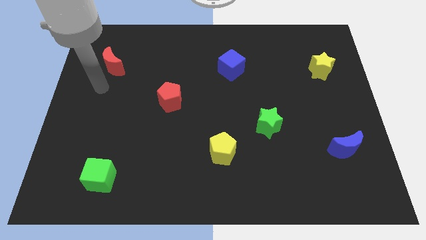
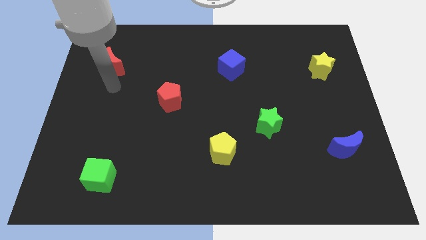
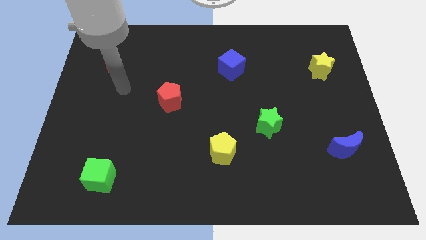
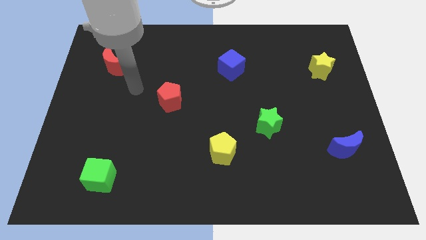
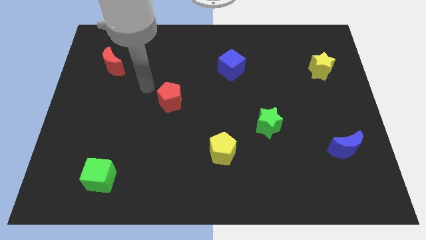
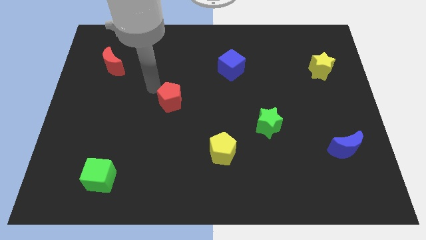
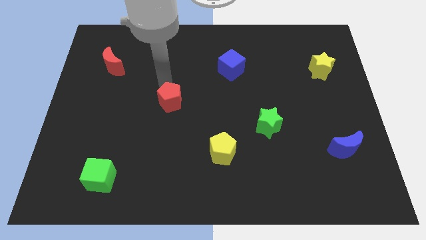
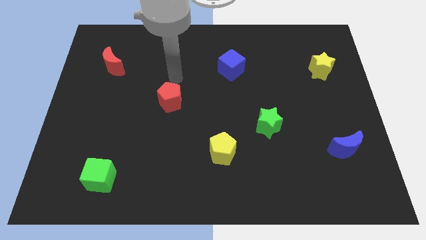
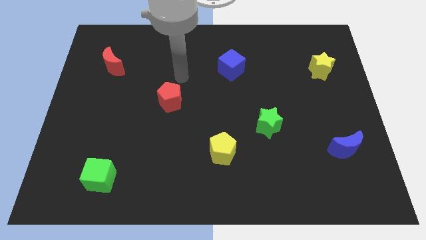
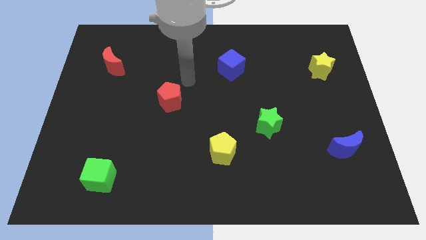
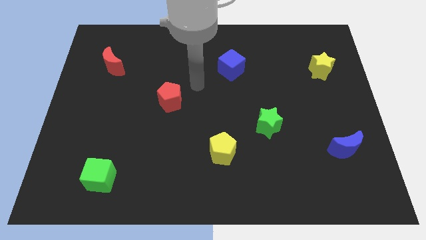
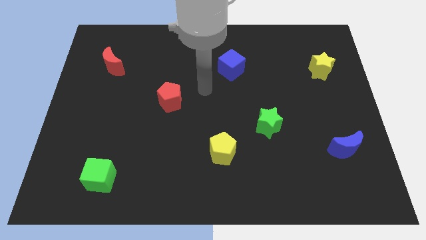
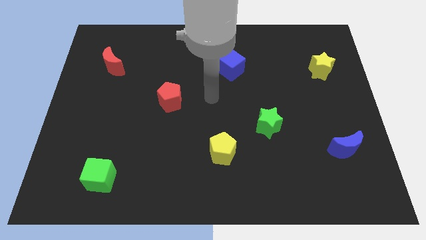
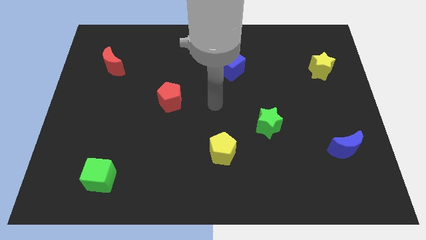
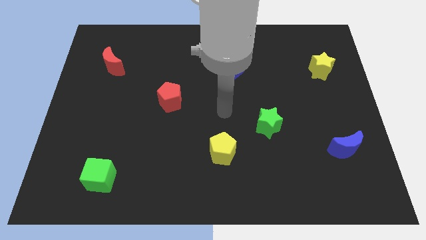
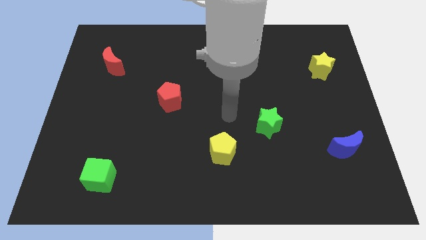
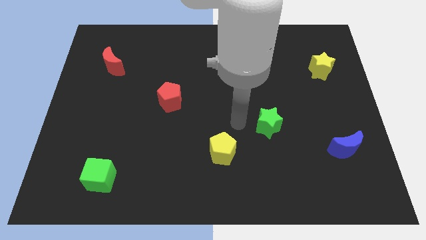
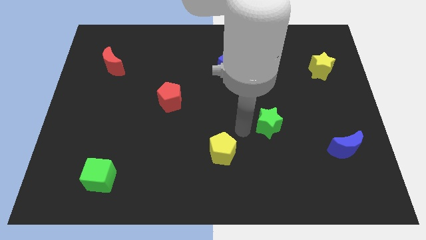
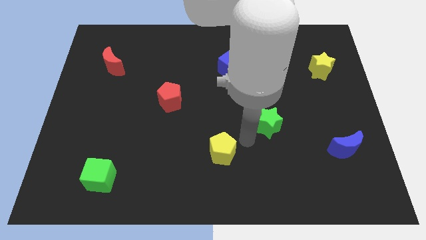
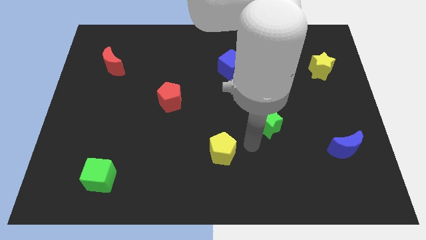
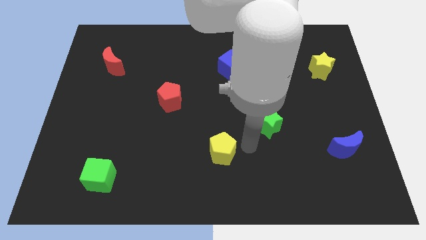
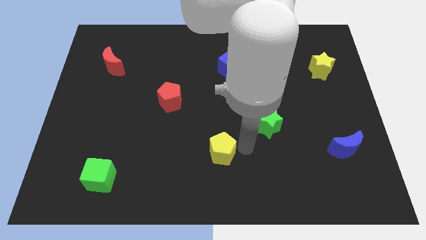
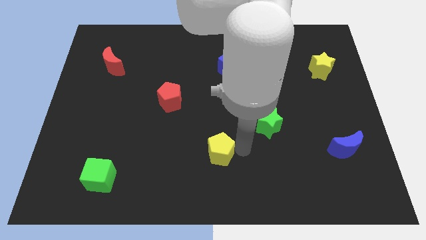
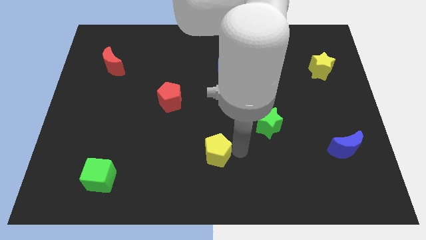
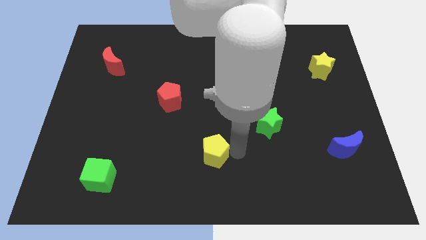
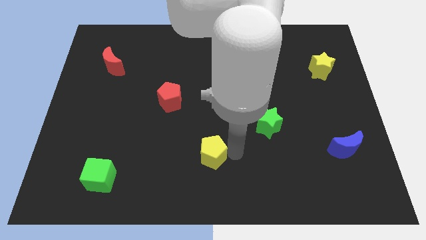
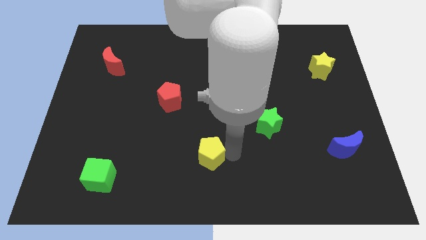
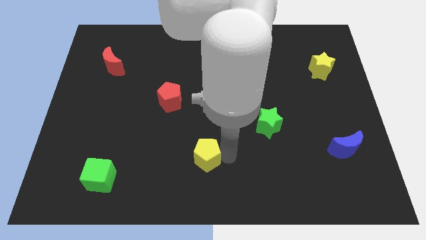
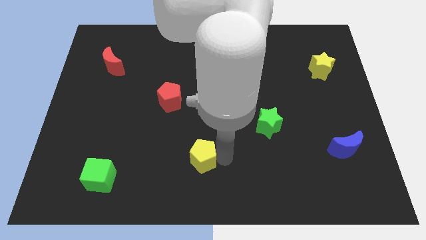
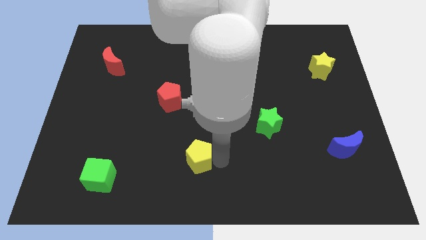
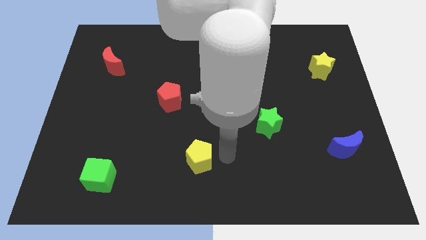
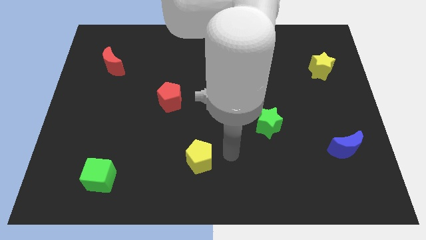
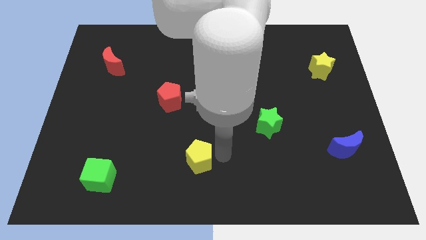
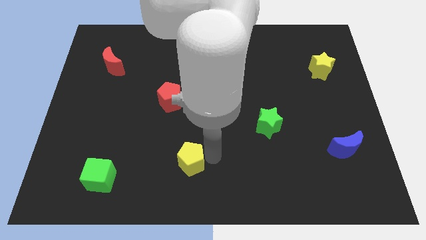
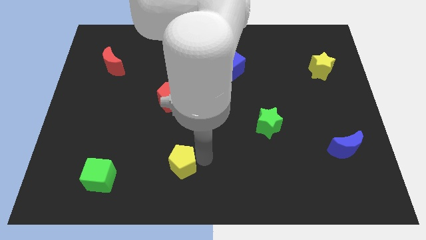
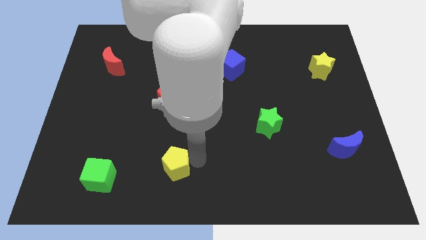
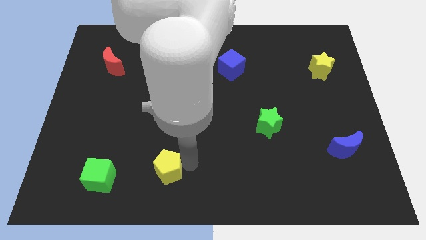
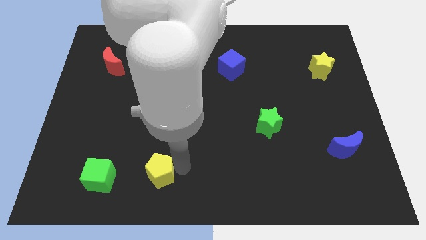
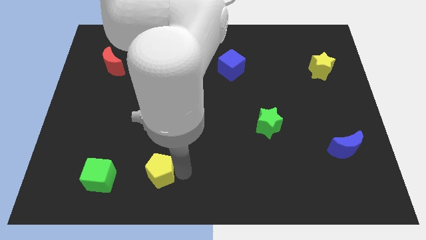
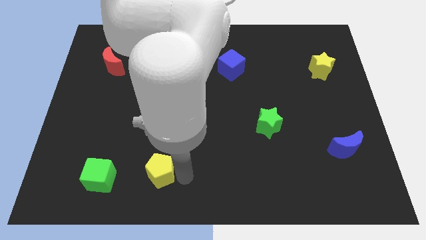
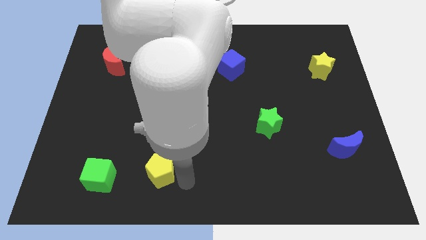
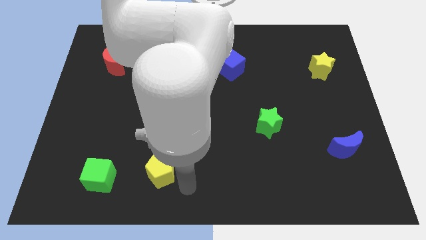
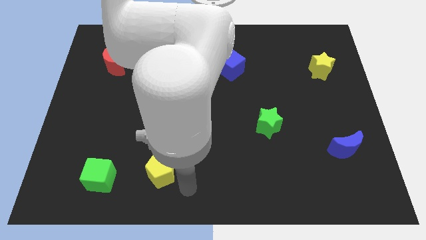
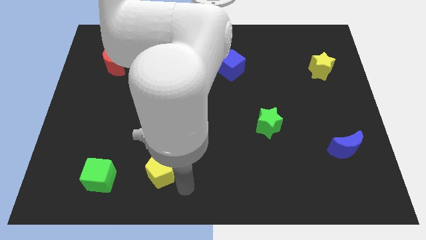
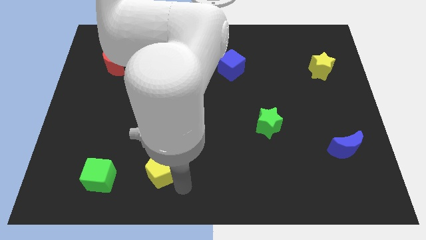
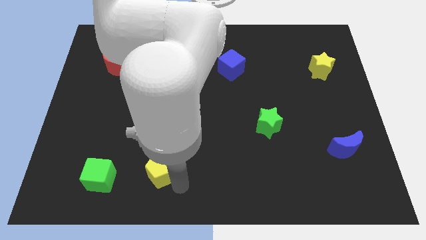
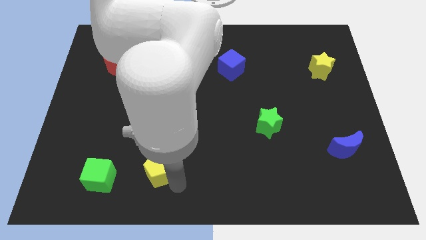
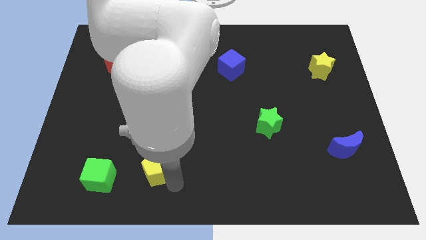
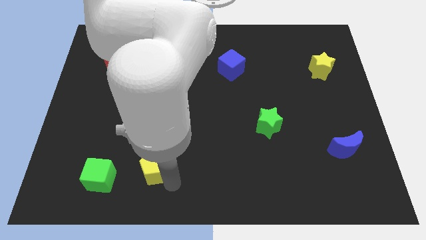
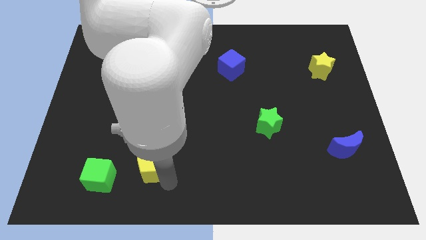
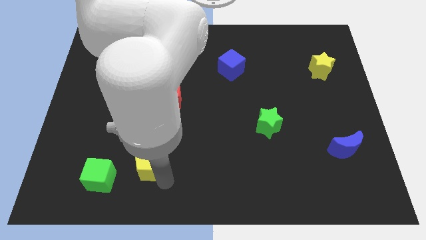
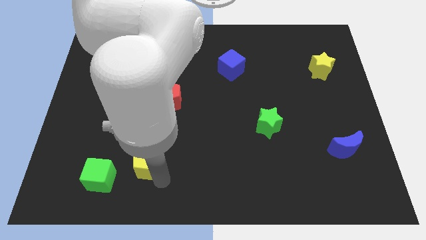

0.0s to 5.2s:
move the yellow pentagon diagonally up and to the right of the green cube

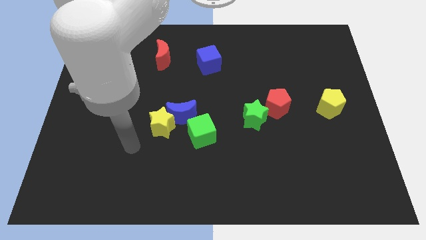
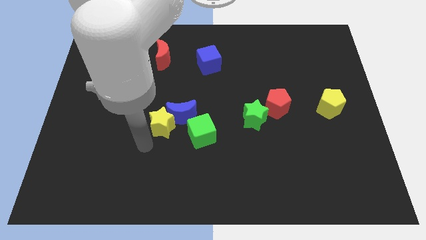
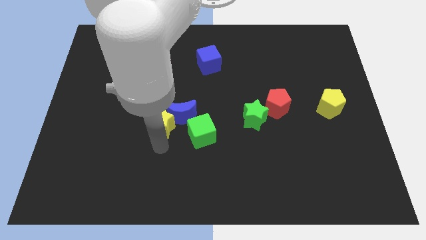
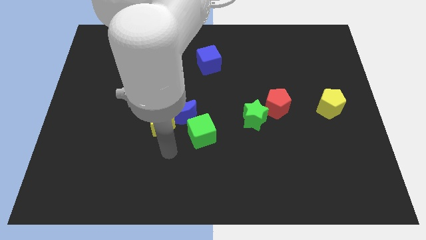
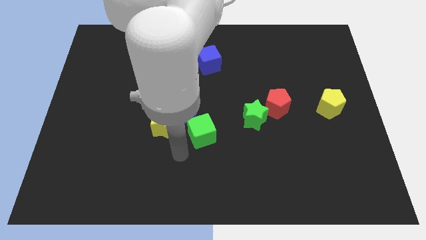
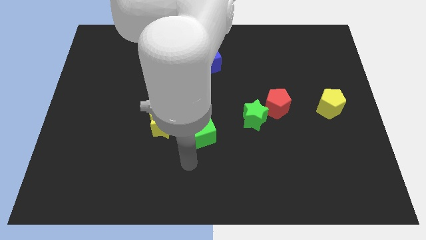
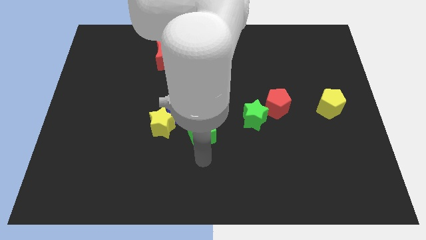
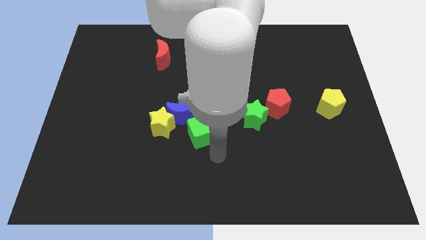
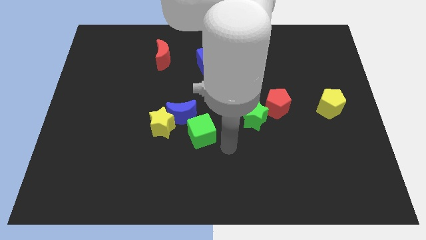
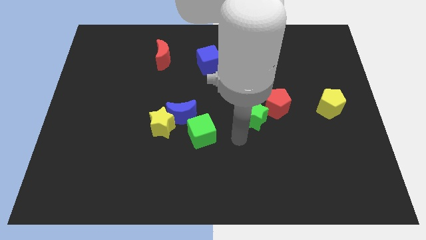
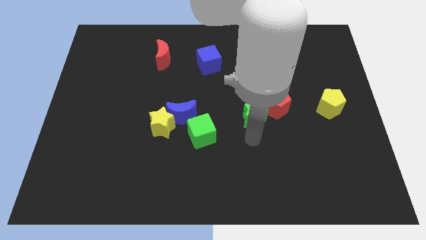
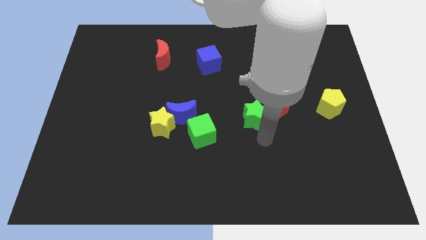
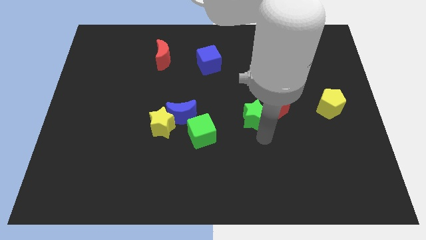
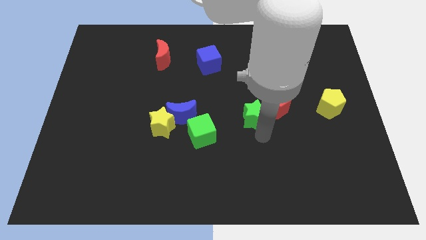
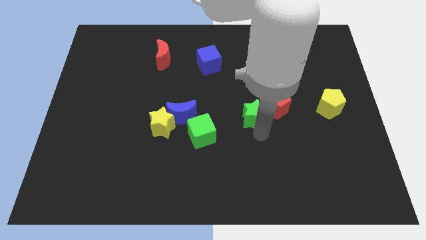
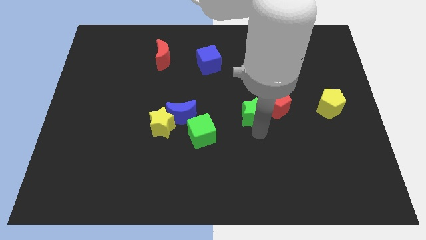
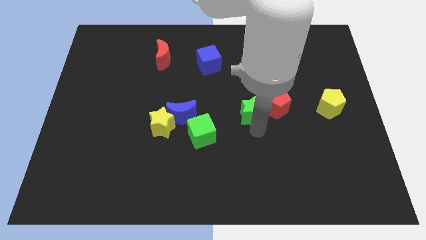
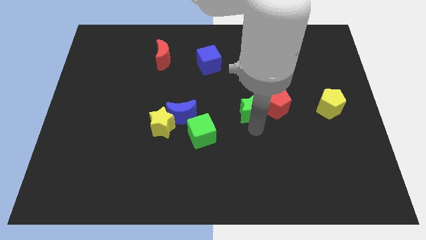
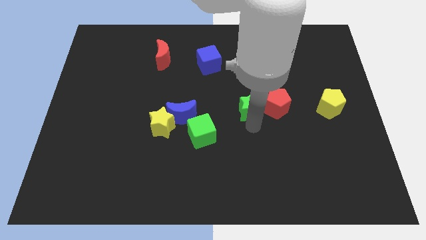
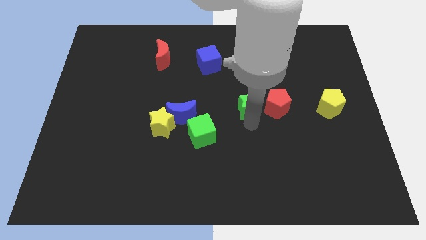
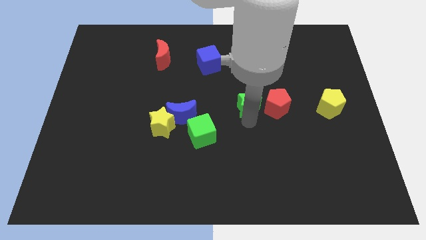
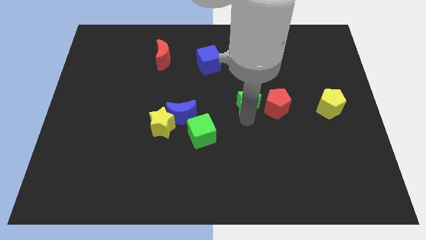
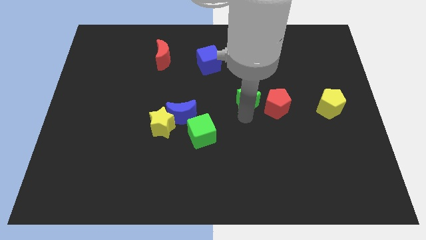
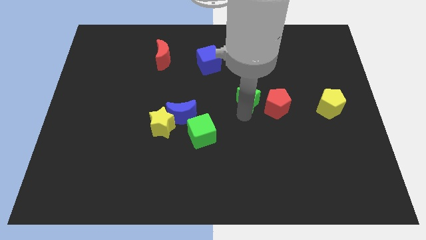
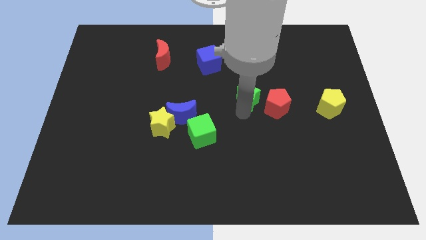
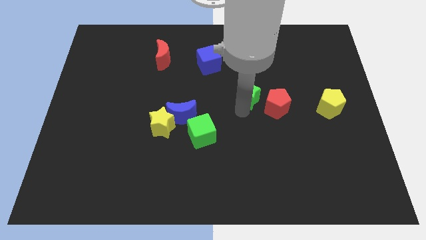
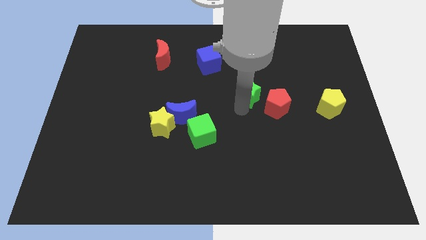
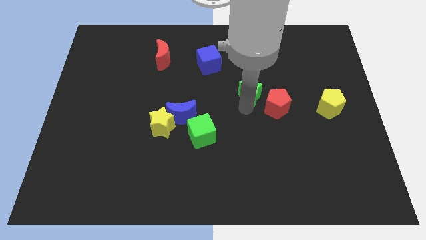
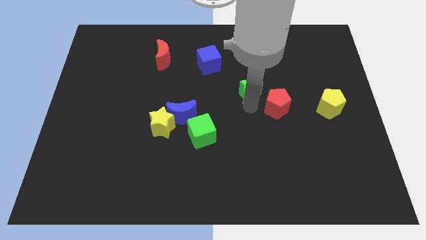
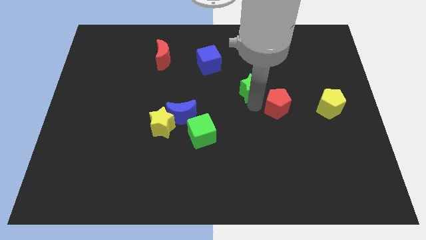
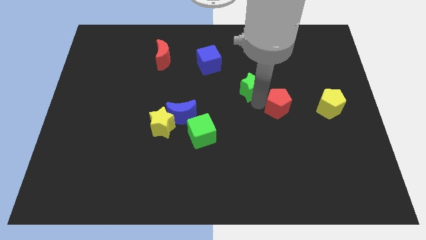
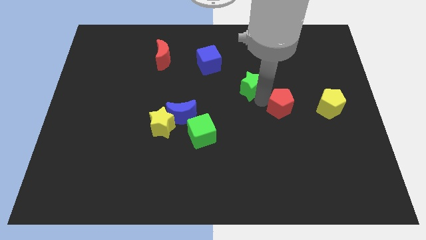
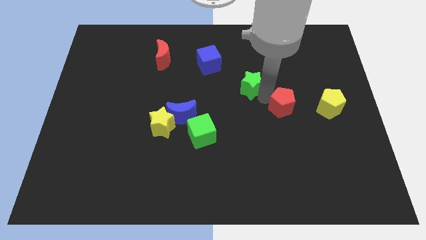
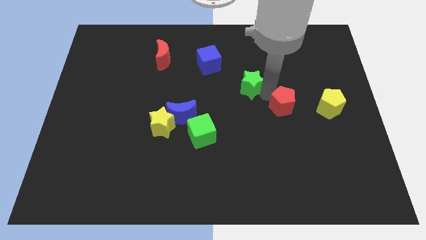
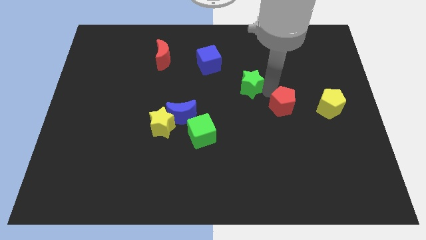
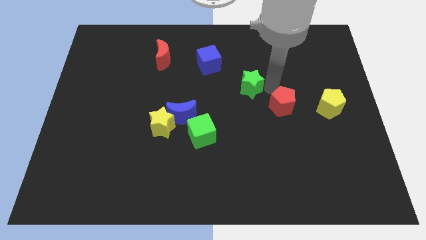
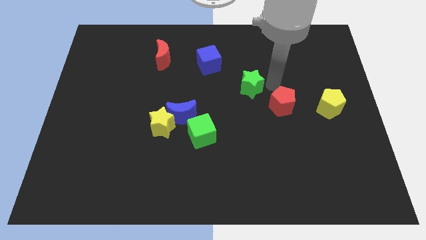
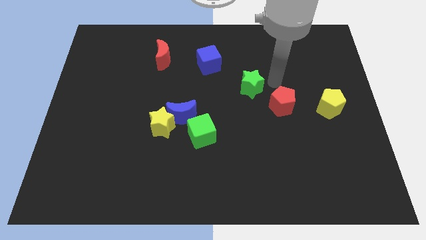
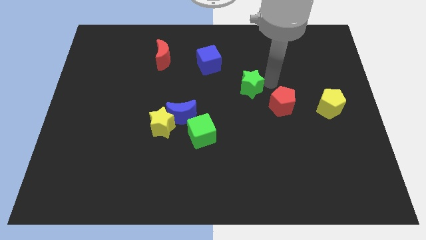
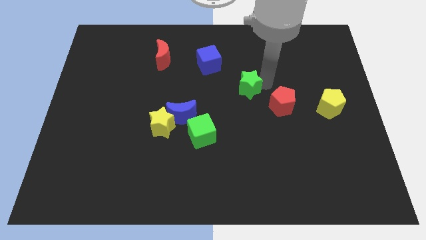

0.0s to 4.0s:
move the green star to the bottom right of the blue cube
